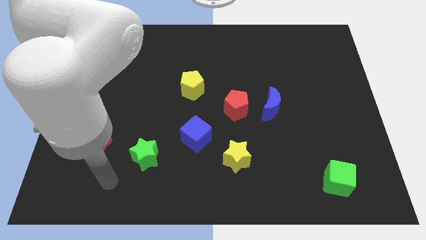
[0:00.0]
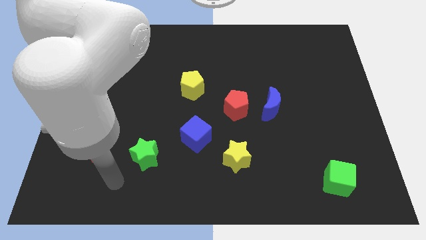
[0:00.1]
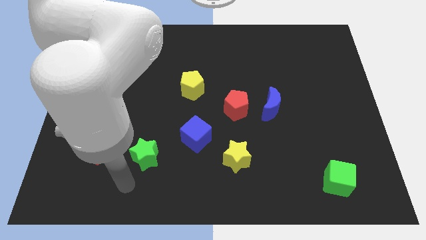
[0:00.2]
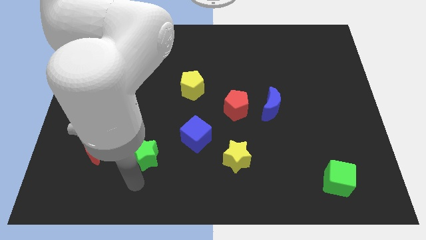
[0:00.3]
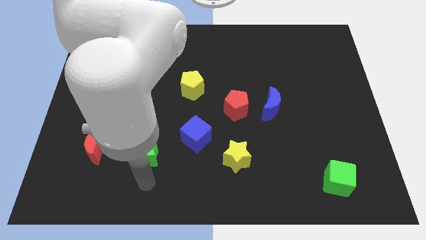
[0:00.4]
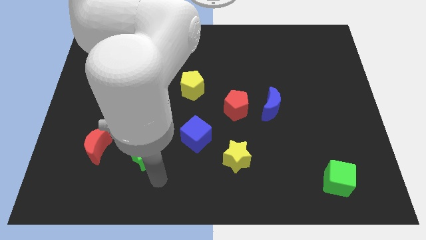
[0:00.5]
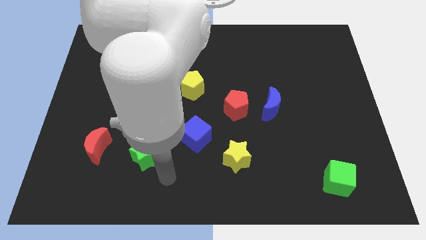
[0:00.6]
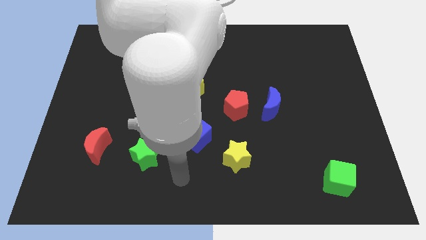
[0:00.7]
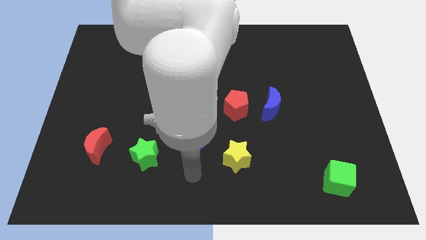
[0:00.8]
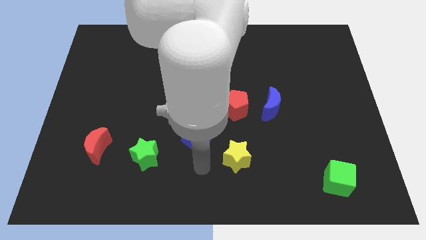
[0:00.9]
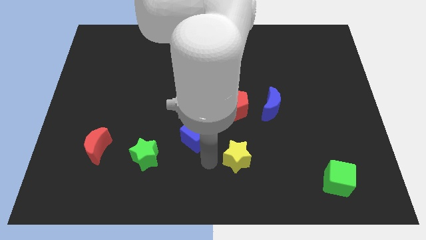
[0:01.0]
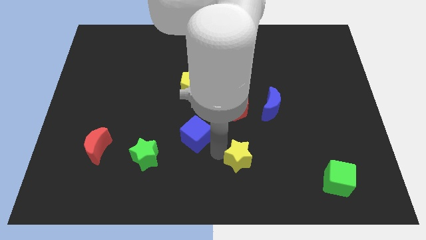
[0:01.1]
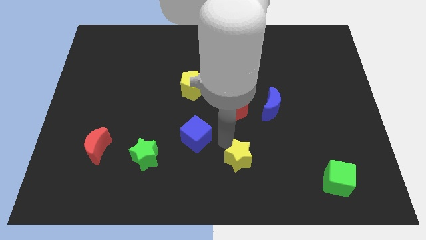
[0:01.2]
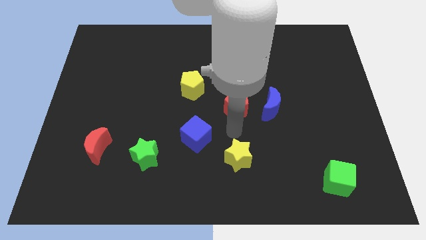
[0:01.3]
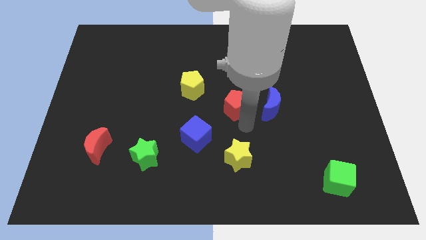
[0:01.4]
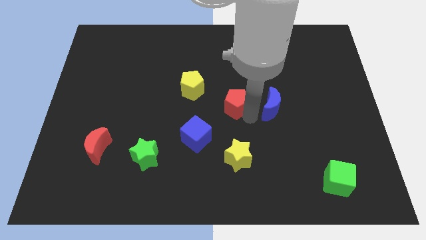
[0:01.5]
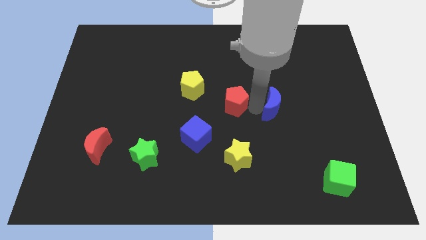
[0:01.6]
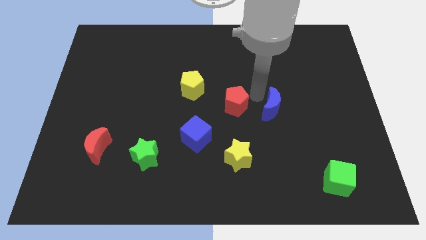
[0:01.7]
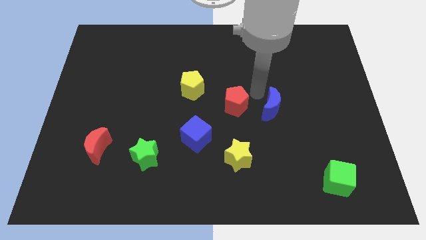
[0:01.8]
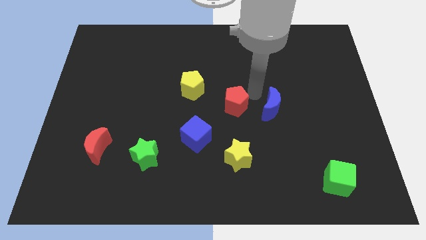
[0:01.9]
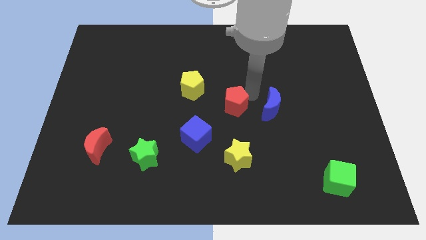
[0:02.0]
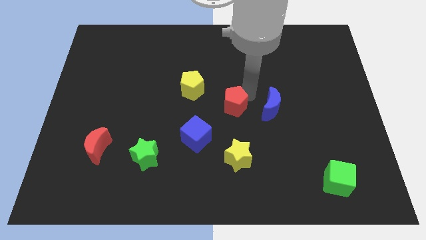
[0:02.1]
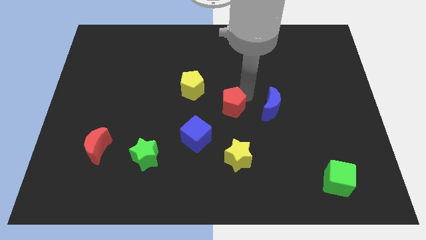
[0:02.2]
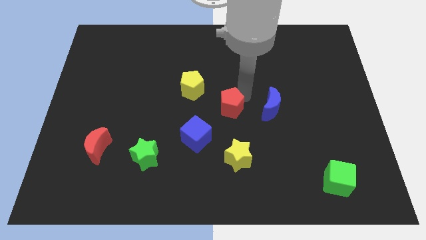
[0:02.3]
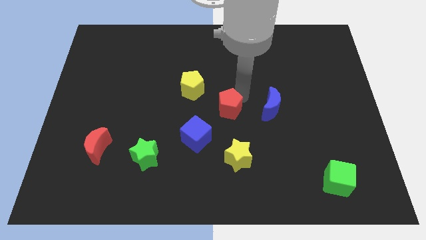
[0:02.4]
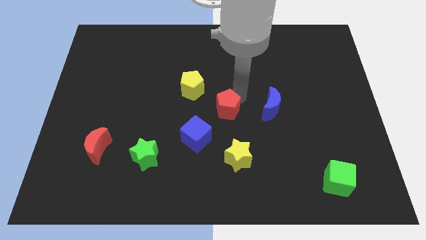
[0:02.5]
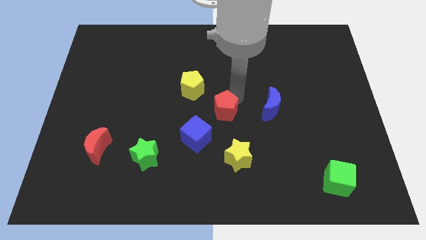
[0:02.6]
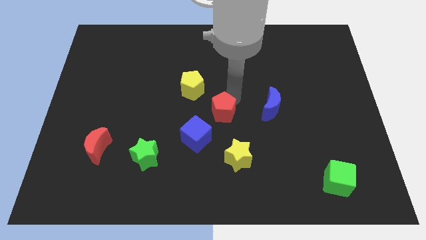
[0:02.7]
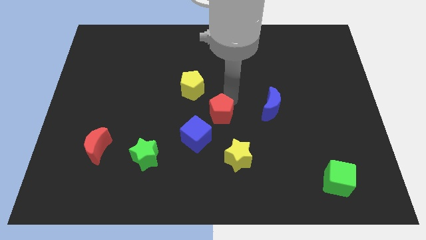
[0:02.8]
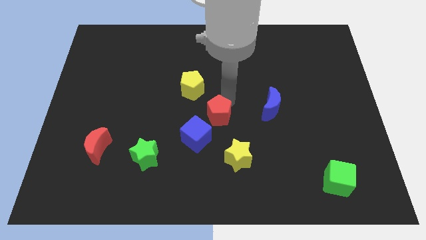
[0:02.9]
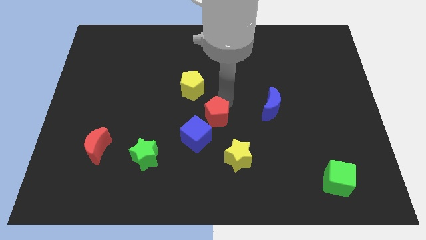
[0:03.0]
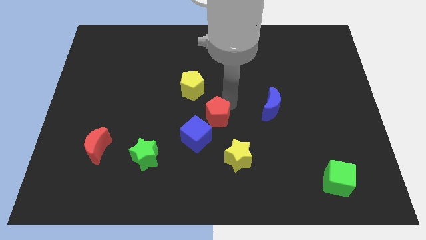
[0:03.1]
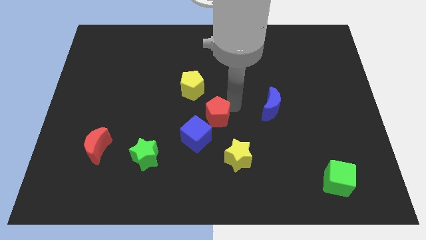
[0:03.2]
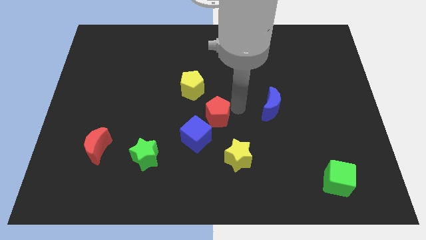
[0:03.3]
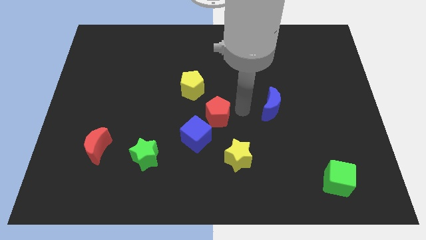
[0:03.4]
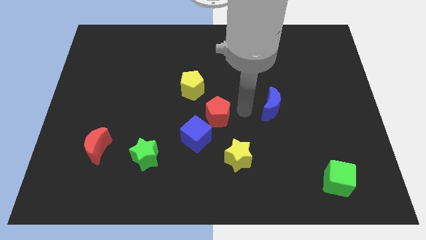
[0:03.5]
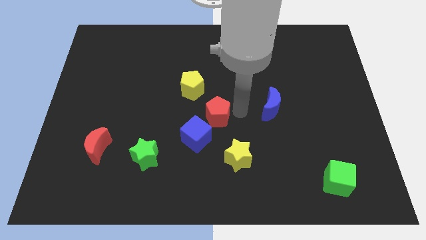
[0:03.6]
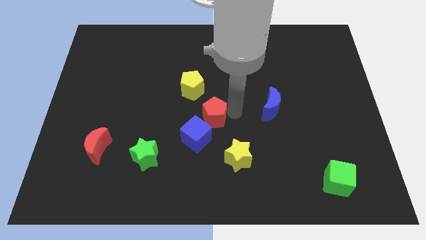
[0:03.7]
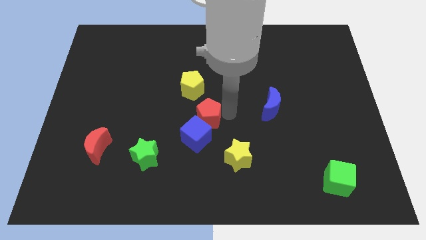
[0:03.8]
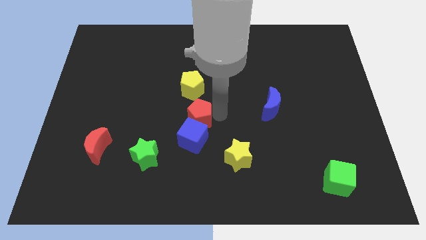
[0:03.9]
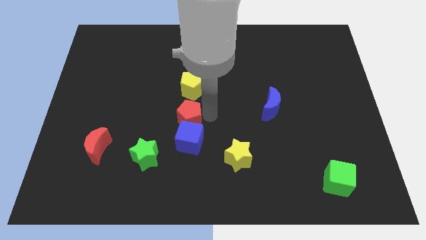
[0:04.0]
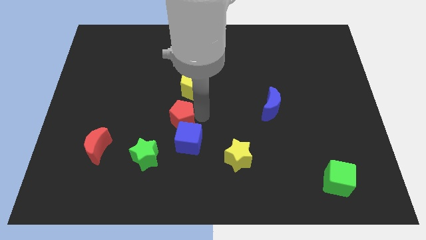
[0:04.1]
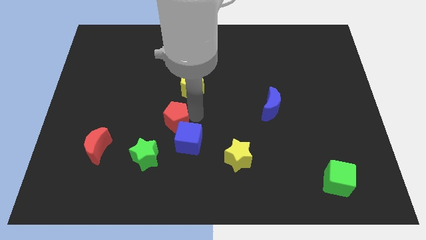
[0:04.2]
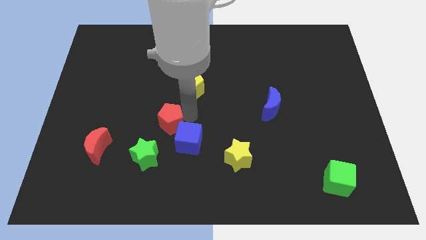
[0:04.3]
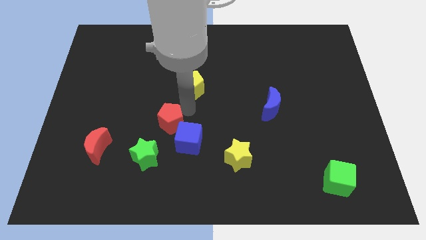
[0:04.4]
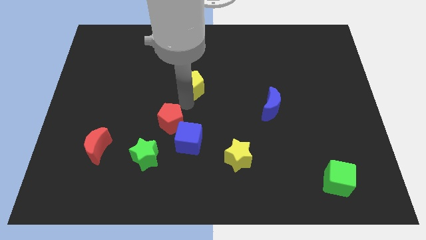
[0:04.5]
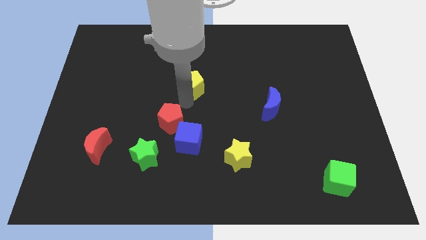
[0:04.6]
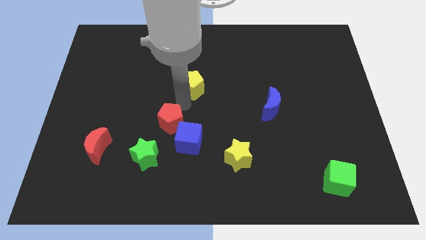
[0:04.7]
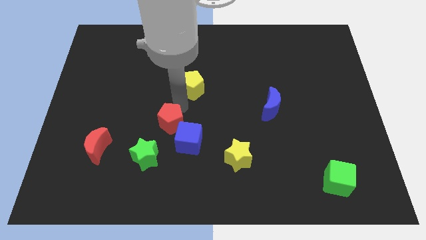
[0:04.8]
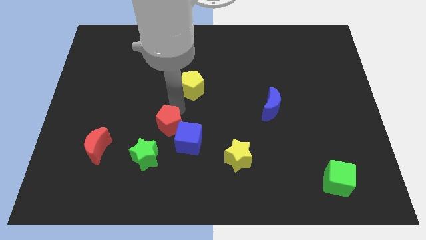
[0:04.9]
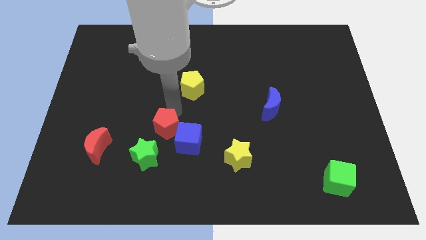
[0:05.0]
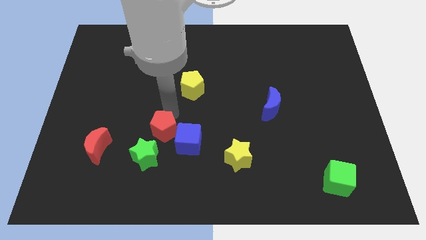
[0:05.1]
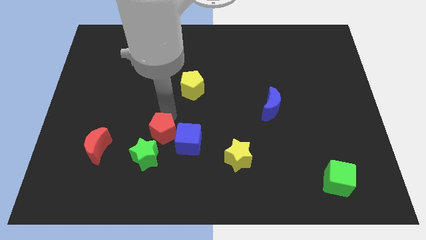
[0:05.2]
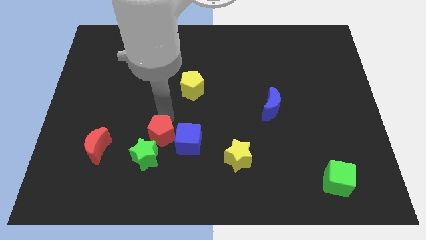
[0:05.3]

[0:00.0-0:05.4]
move the red pentagon close to the green star

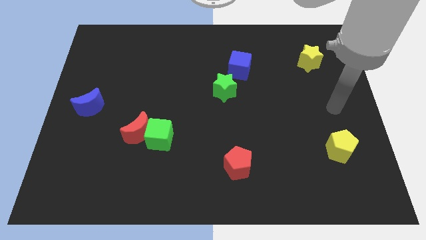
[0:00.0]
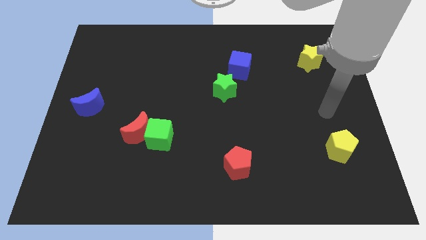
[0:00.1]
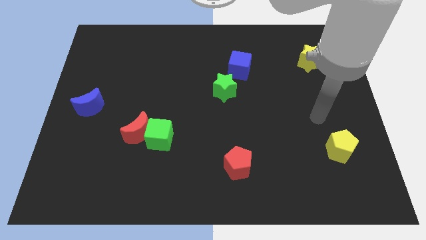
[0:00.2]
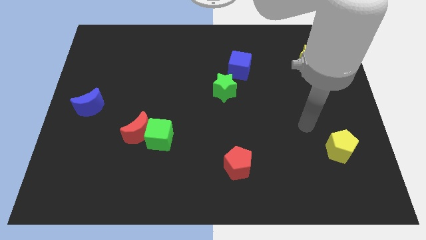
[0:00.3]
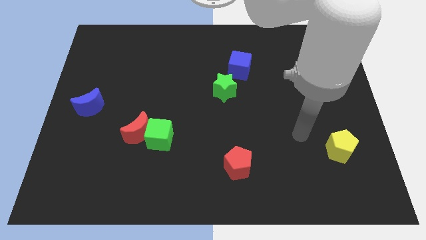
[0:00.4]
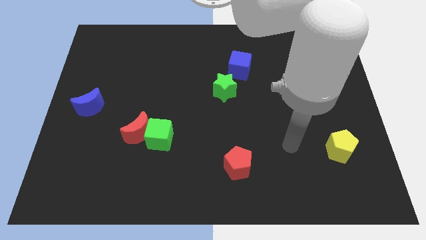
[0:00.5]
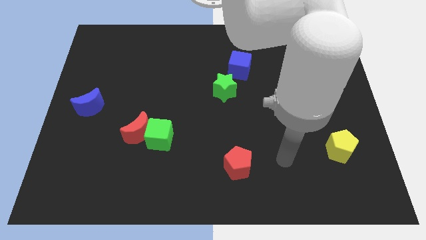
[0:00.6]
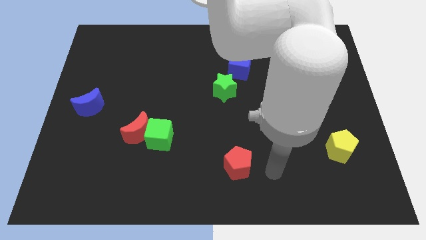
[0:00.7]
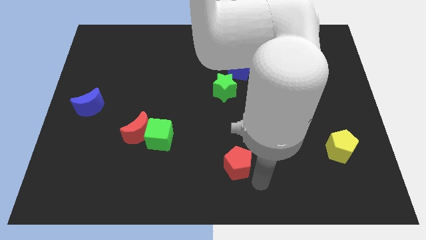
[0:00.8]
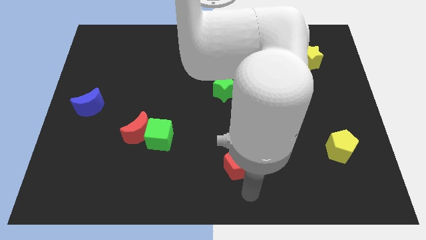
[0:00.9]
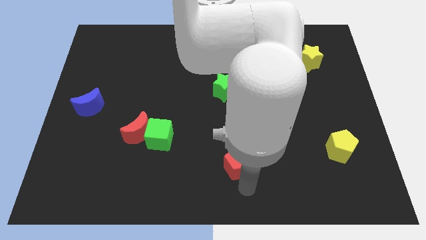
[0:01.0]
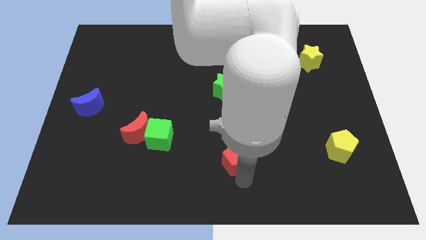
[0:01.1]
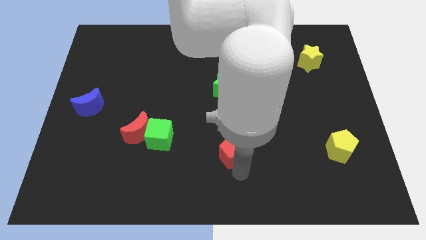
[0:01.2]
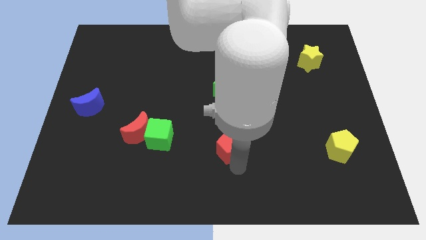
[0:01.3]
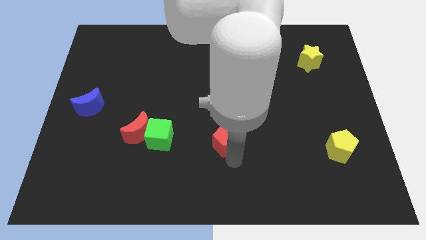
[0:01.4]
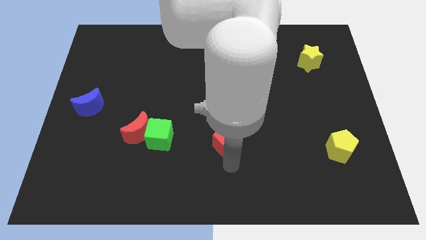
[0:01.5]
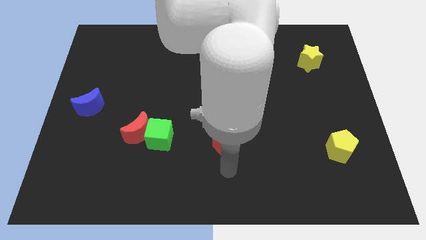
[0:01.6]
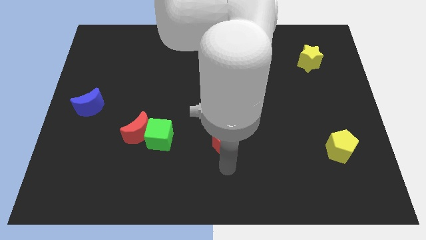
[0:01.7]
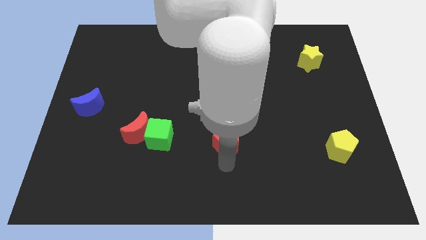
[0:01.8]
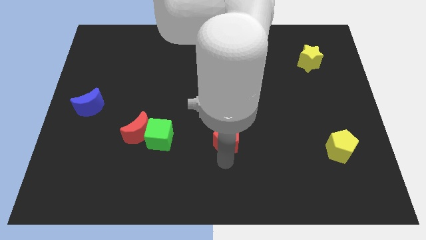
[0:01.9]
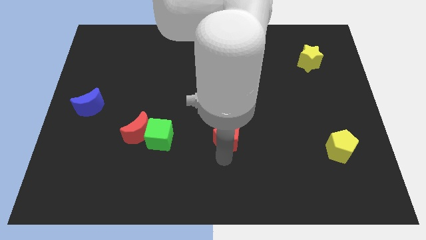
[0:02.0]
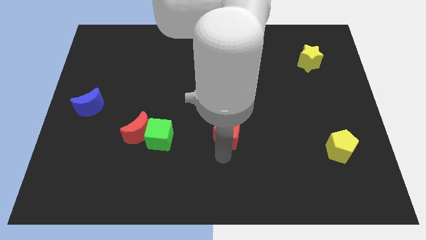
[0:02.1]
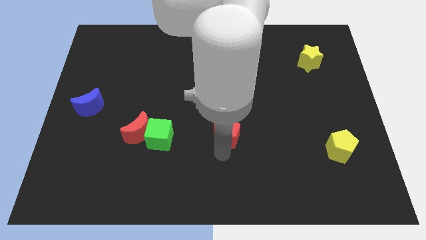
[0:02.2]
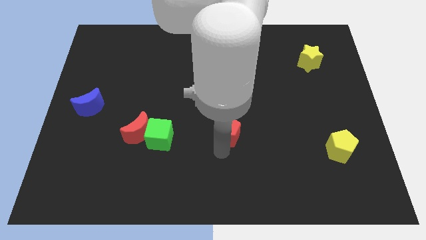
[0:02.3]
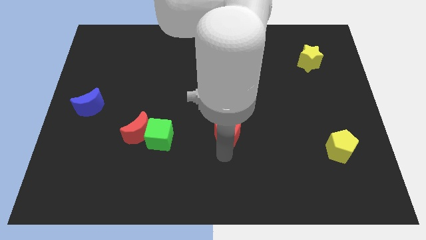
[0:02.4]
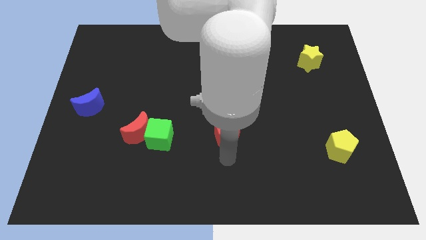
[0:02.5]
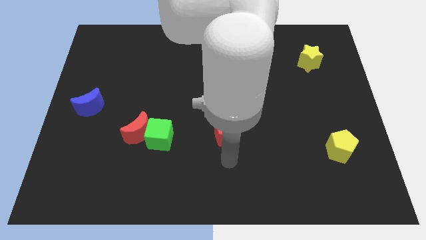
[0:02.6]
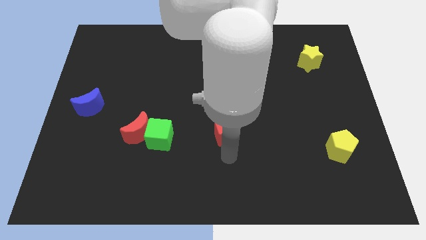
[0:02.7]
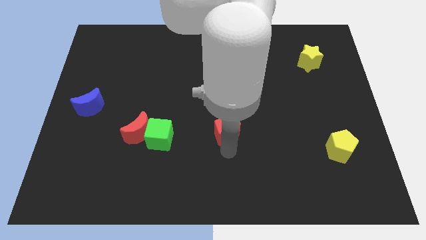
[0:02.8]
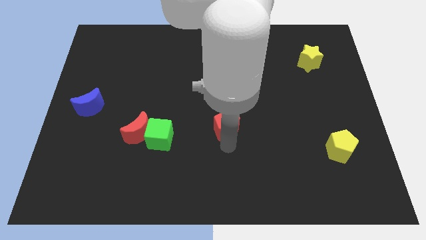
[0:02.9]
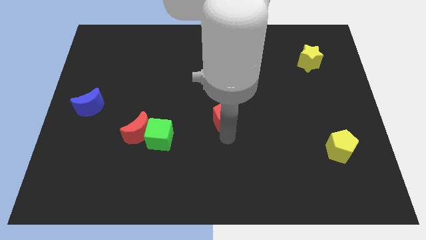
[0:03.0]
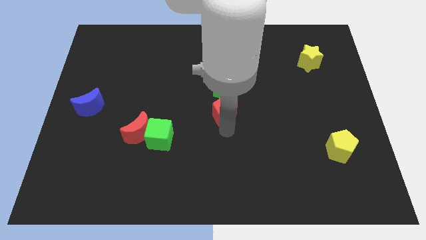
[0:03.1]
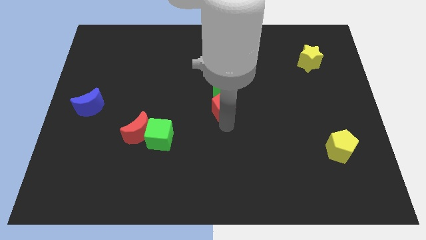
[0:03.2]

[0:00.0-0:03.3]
put the red pentagon to the green star
